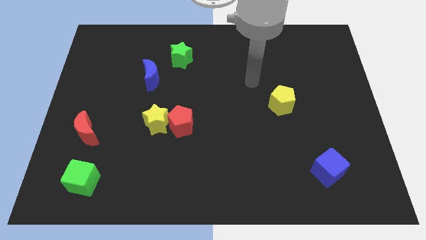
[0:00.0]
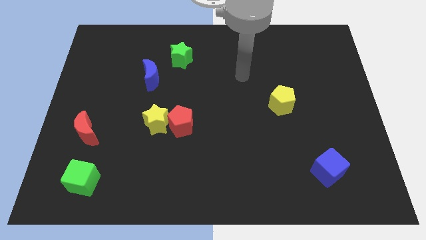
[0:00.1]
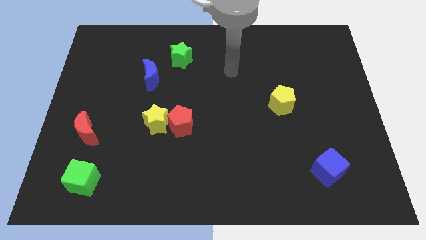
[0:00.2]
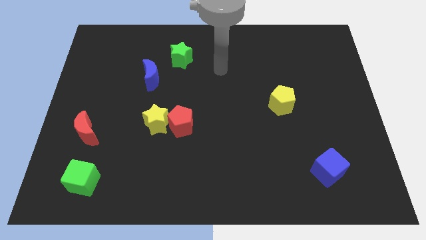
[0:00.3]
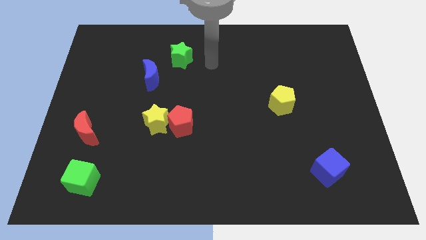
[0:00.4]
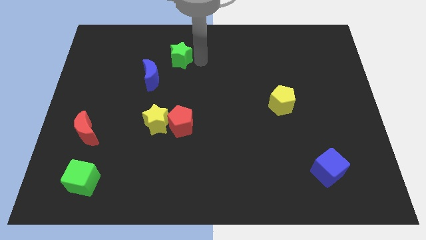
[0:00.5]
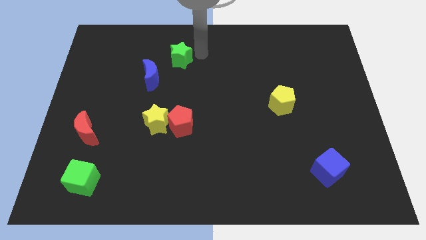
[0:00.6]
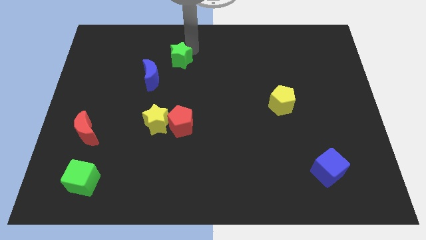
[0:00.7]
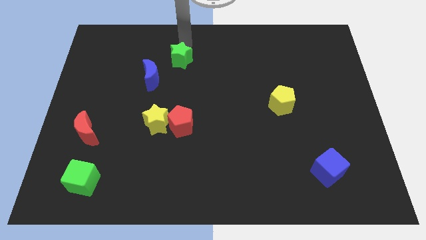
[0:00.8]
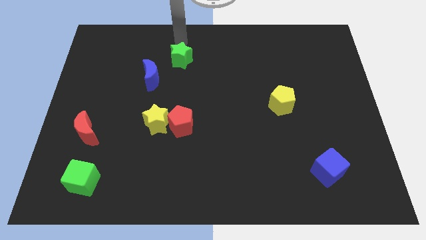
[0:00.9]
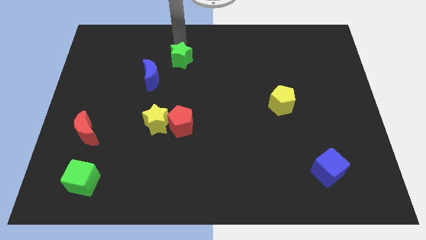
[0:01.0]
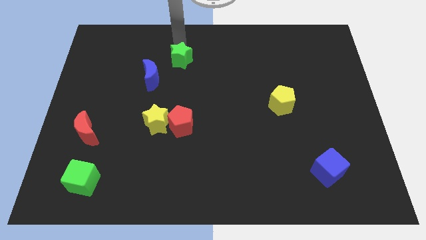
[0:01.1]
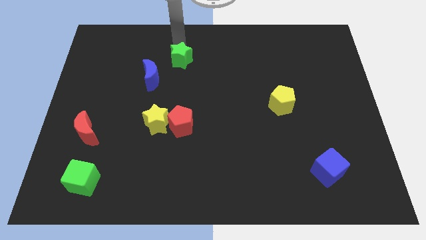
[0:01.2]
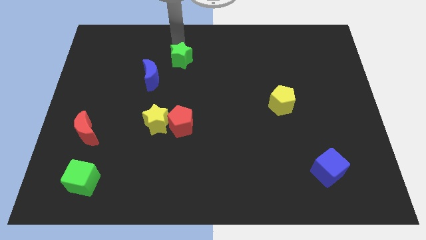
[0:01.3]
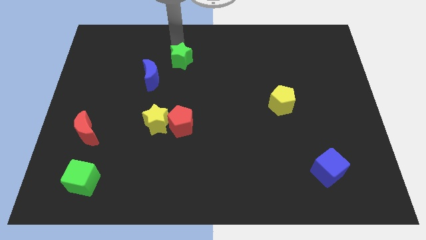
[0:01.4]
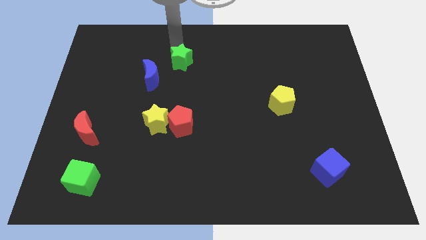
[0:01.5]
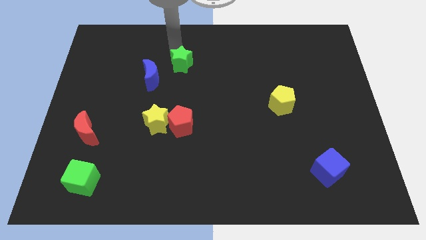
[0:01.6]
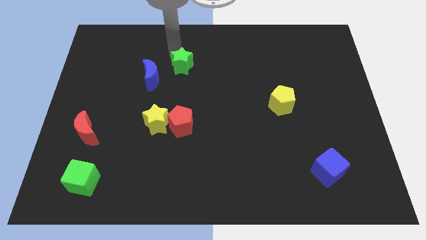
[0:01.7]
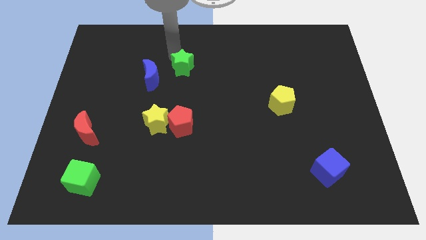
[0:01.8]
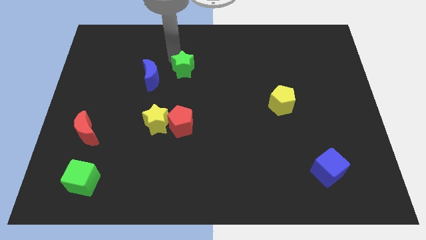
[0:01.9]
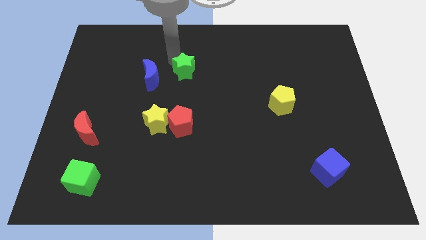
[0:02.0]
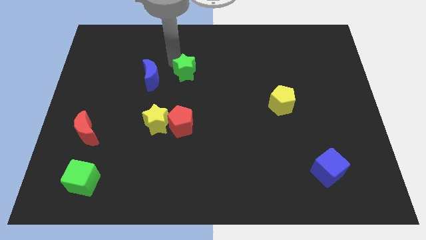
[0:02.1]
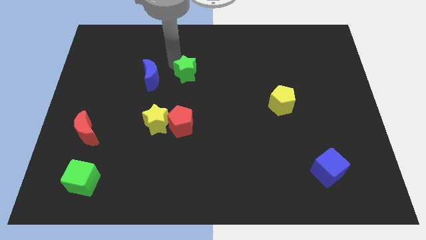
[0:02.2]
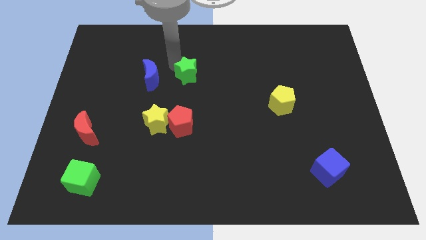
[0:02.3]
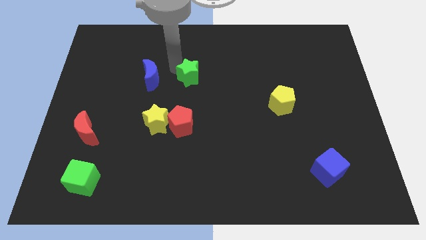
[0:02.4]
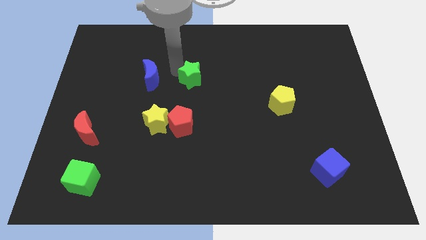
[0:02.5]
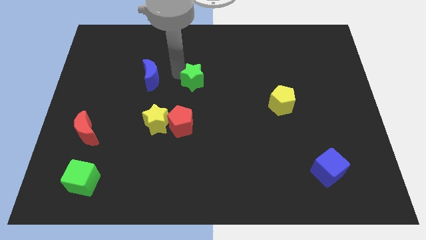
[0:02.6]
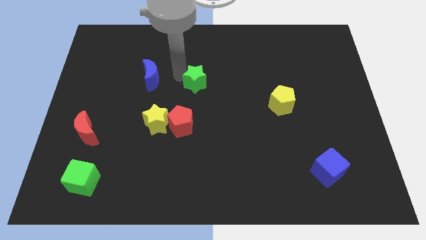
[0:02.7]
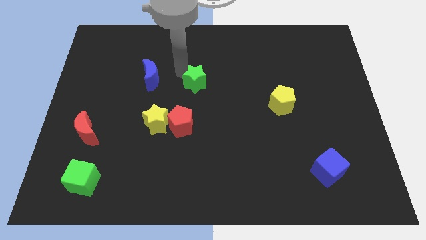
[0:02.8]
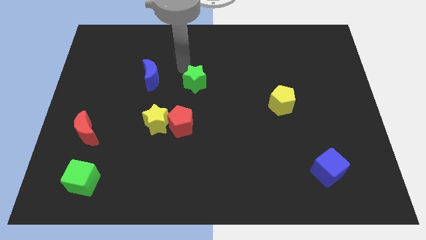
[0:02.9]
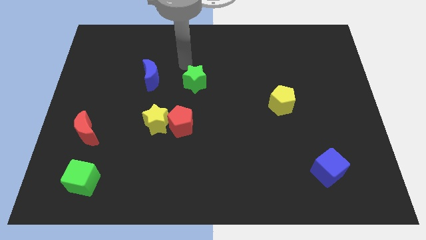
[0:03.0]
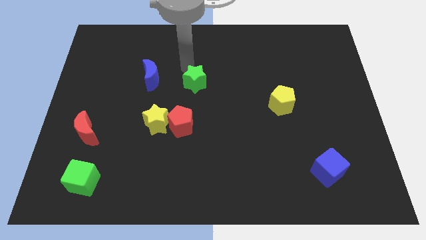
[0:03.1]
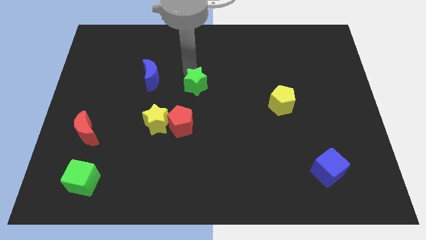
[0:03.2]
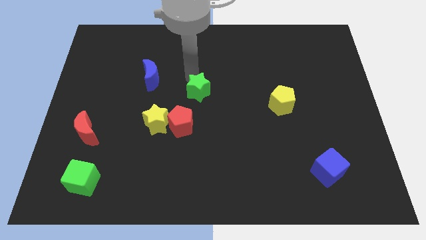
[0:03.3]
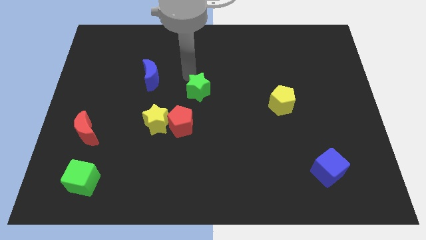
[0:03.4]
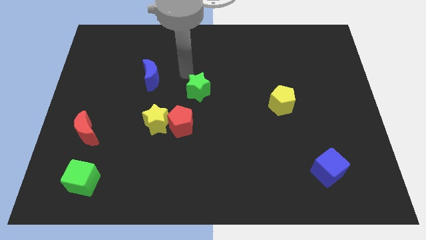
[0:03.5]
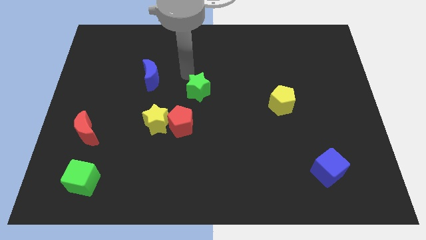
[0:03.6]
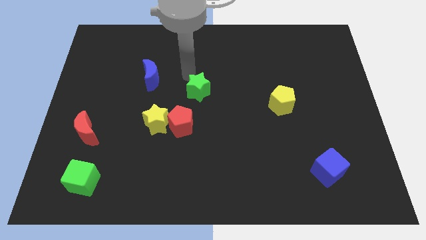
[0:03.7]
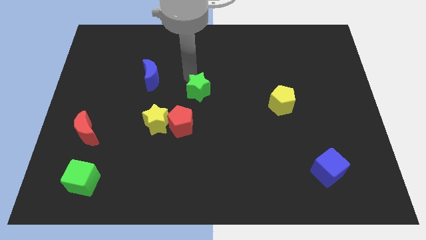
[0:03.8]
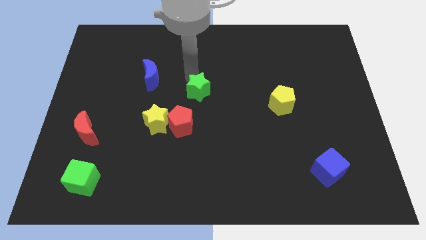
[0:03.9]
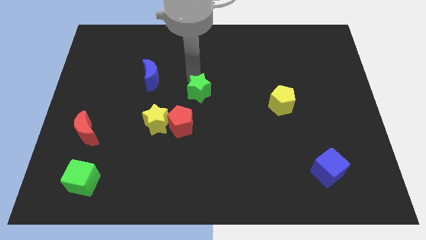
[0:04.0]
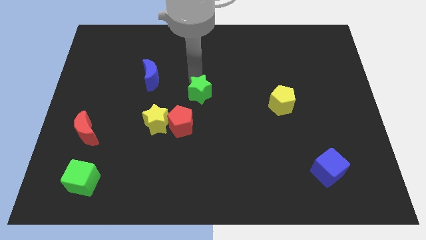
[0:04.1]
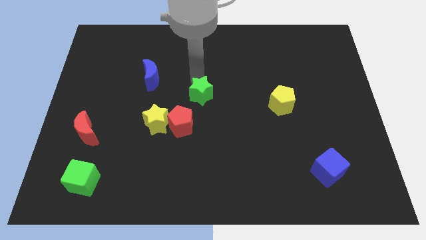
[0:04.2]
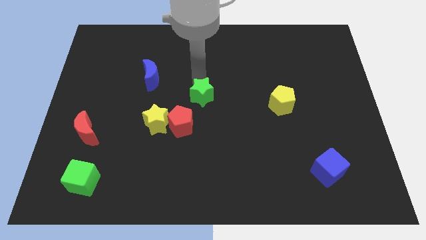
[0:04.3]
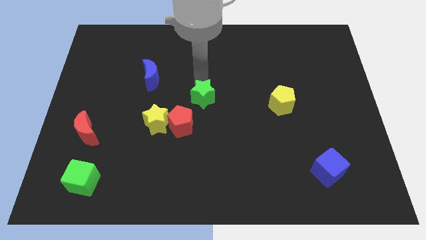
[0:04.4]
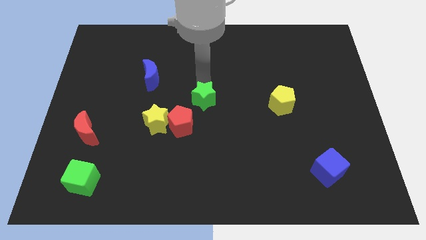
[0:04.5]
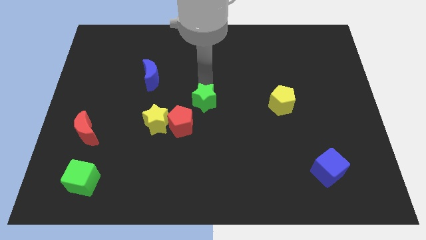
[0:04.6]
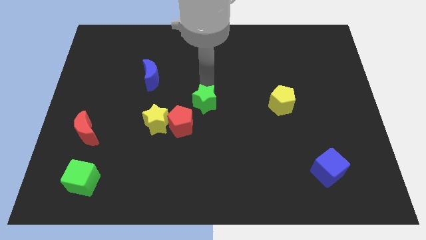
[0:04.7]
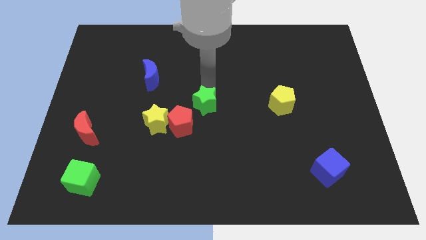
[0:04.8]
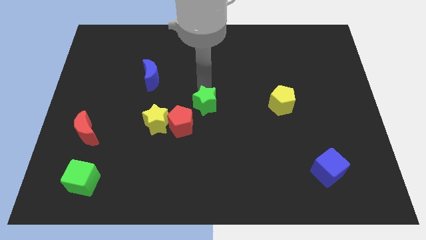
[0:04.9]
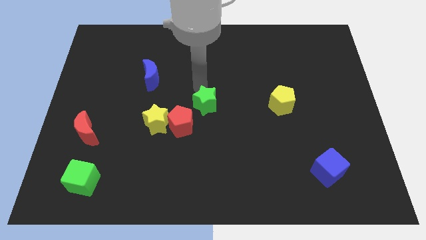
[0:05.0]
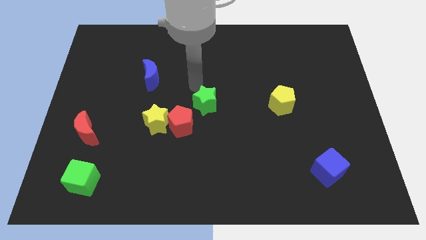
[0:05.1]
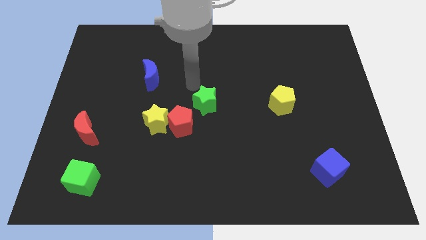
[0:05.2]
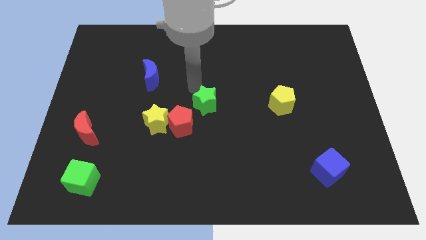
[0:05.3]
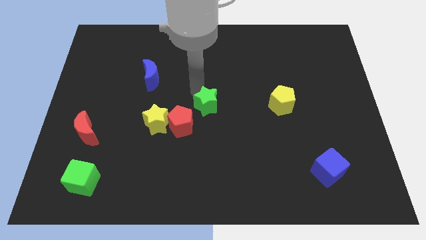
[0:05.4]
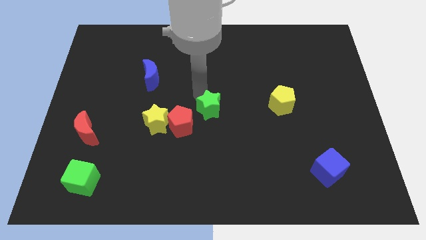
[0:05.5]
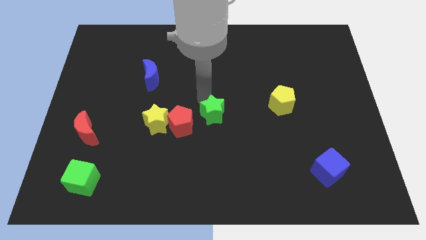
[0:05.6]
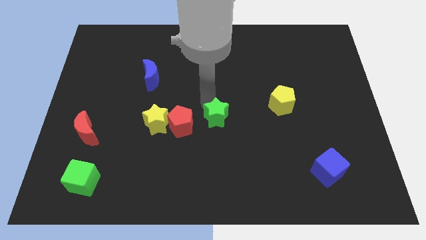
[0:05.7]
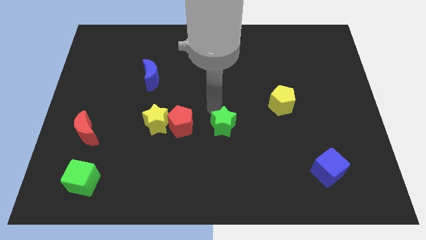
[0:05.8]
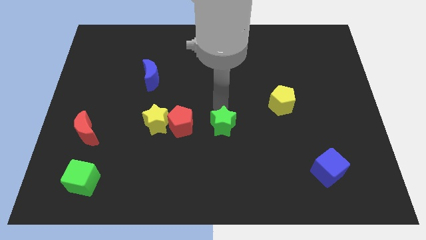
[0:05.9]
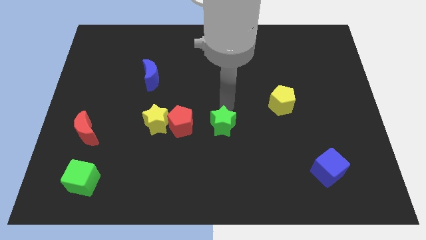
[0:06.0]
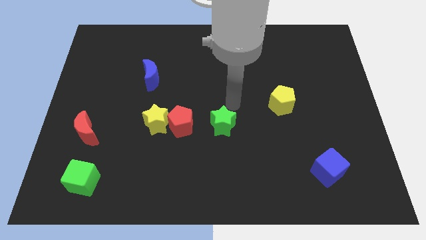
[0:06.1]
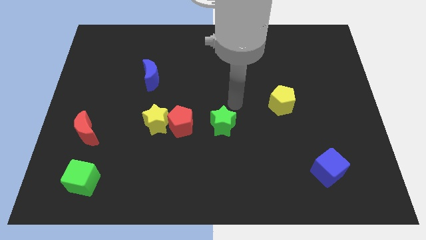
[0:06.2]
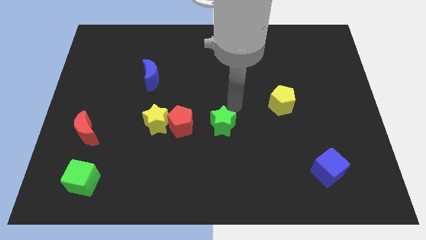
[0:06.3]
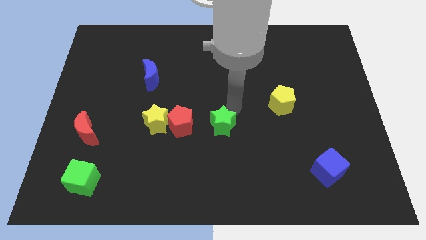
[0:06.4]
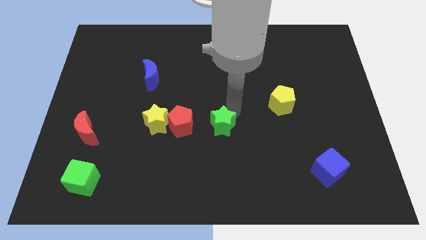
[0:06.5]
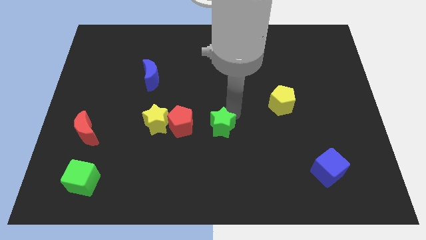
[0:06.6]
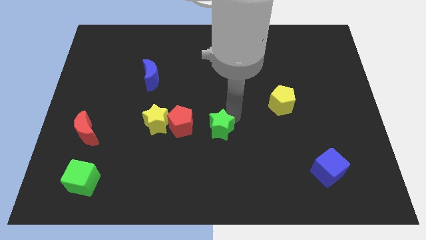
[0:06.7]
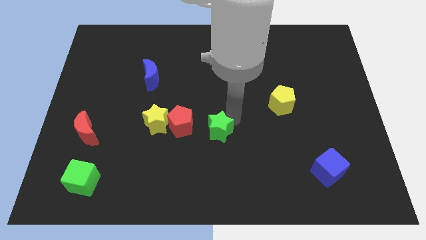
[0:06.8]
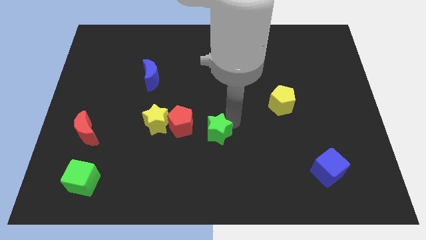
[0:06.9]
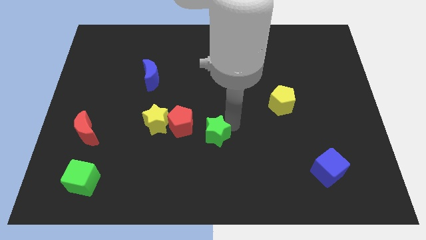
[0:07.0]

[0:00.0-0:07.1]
move the green star downwards

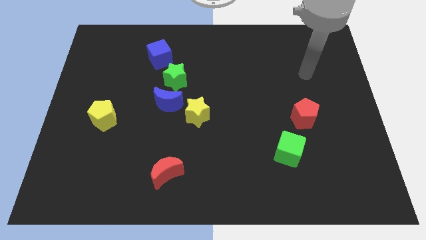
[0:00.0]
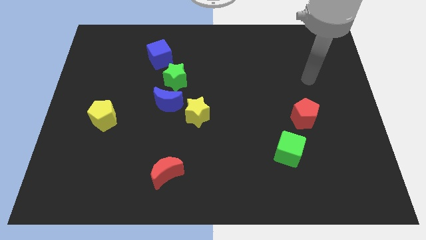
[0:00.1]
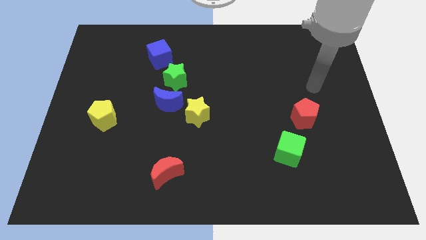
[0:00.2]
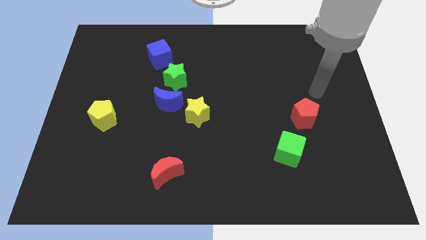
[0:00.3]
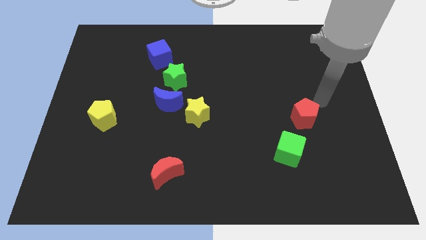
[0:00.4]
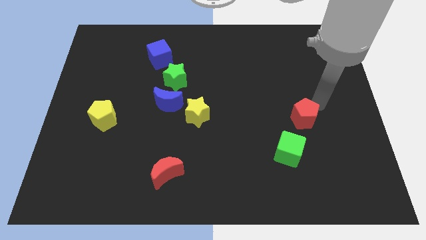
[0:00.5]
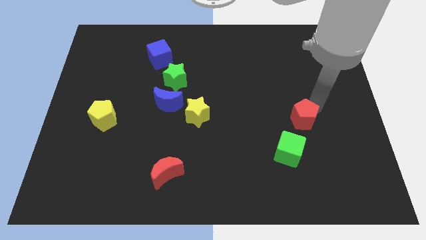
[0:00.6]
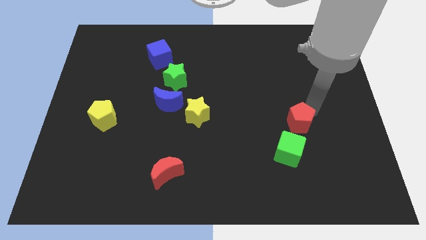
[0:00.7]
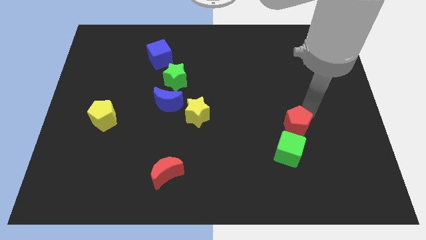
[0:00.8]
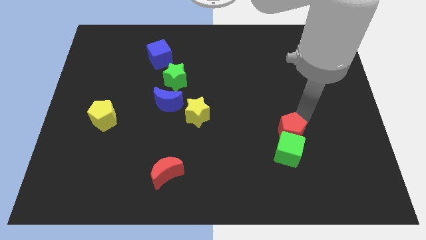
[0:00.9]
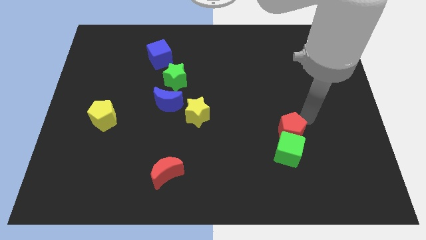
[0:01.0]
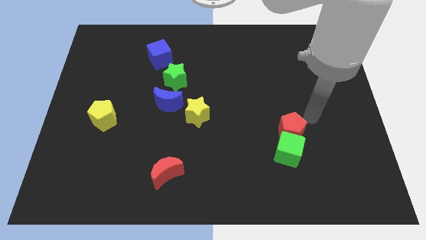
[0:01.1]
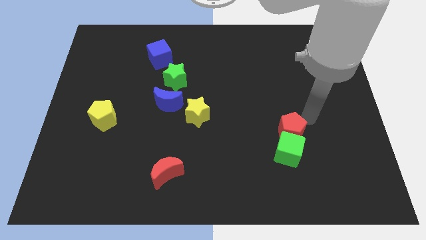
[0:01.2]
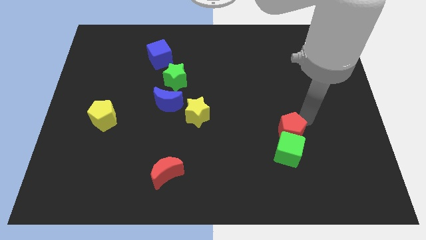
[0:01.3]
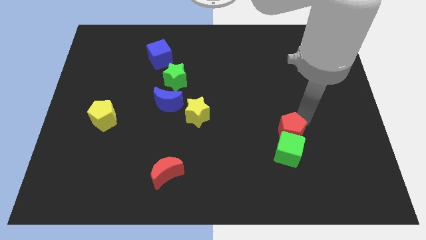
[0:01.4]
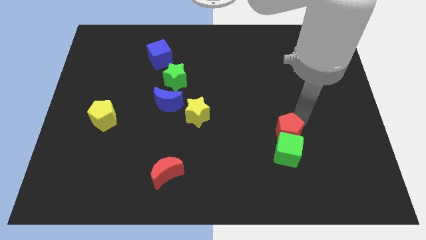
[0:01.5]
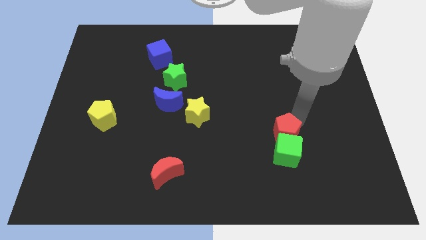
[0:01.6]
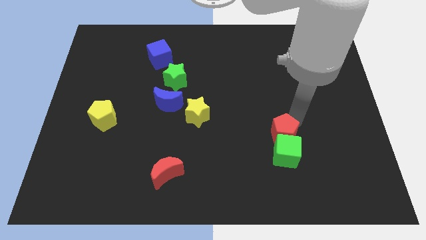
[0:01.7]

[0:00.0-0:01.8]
move the red pentagon a little down and to the left diagonally
